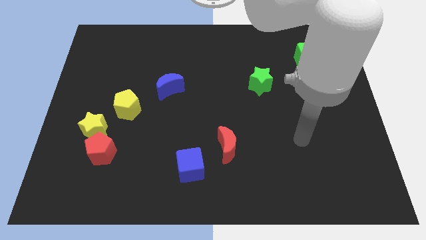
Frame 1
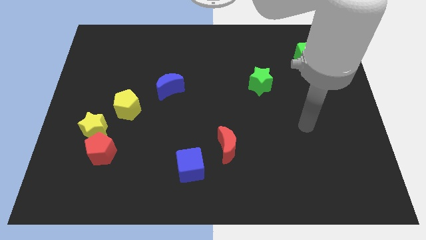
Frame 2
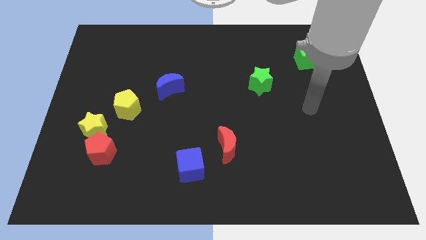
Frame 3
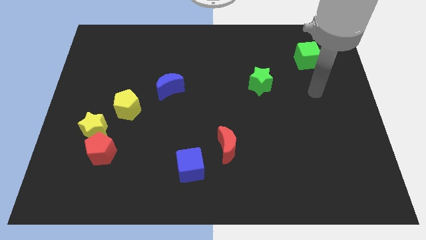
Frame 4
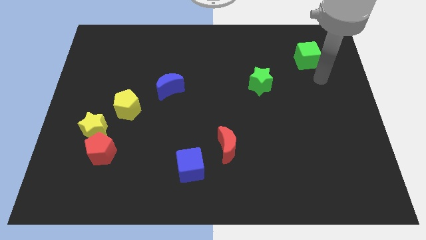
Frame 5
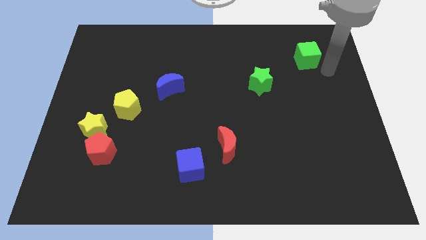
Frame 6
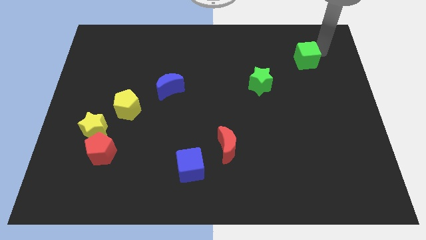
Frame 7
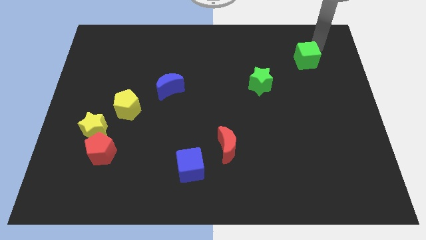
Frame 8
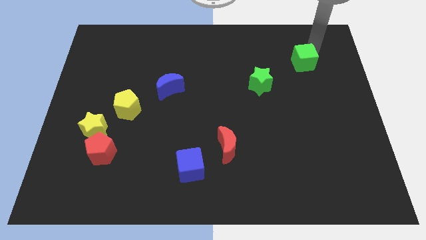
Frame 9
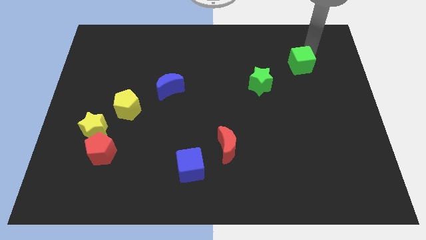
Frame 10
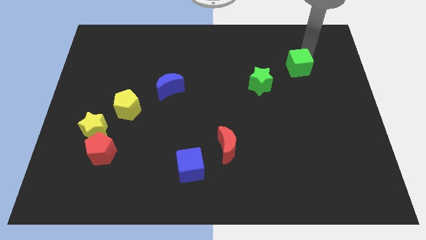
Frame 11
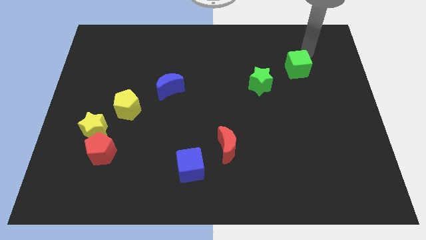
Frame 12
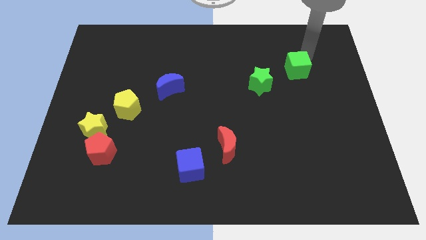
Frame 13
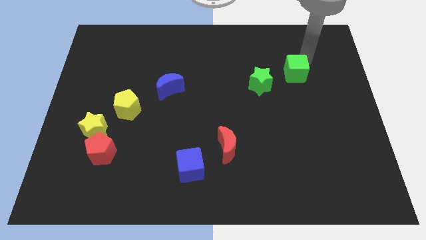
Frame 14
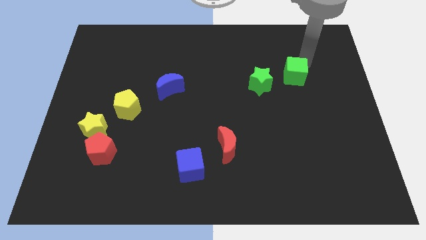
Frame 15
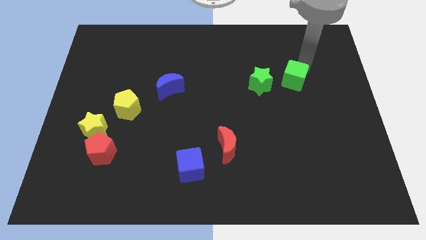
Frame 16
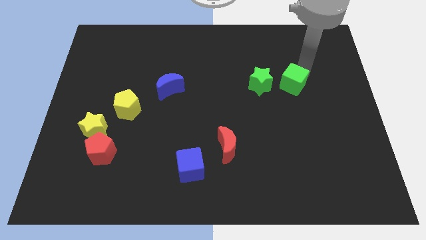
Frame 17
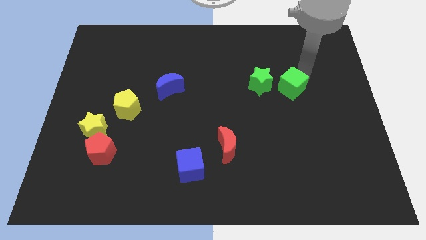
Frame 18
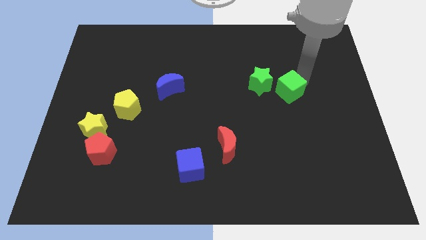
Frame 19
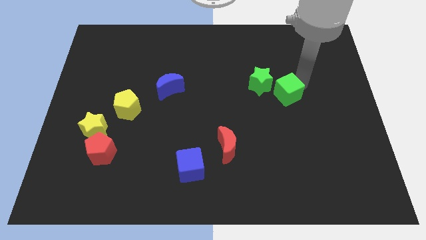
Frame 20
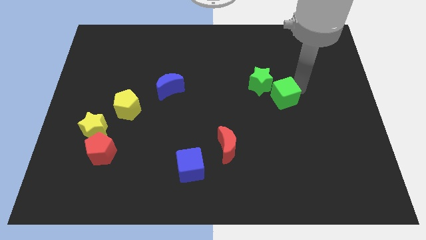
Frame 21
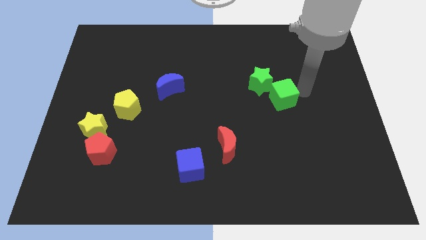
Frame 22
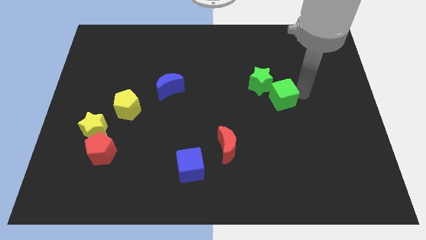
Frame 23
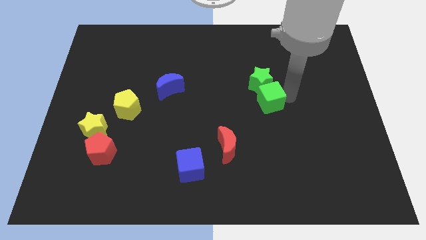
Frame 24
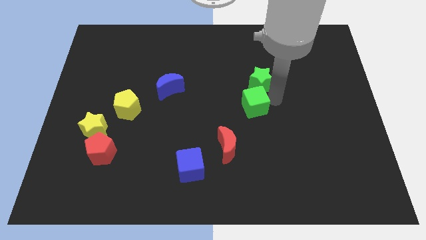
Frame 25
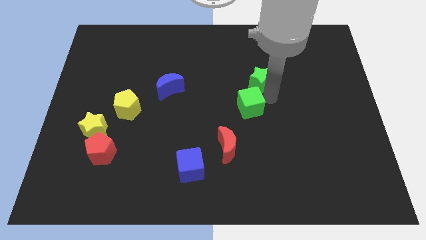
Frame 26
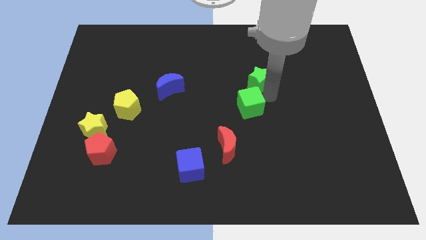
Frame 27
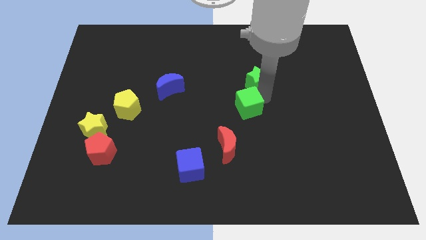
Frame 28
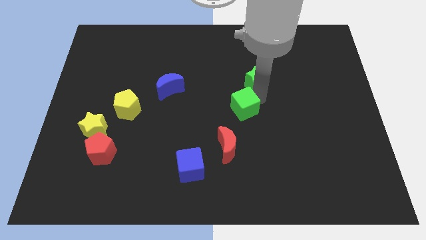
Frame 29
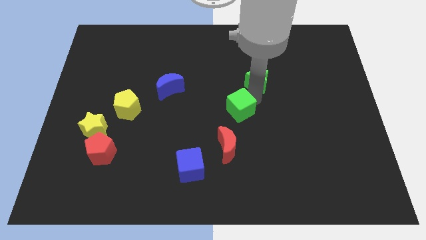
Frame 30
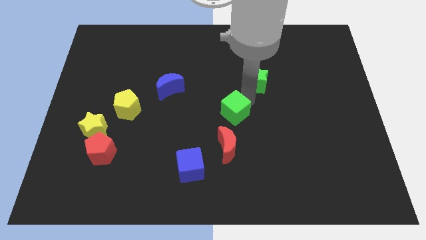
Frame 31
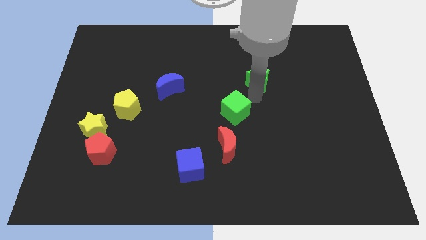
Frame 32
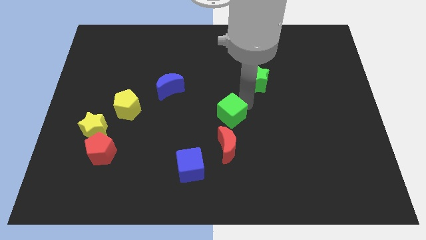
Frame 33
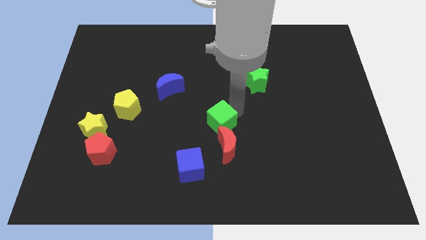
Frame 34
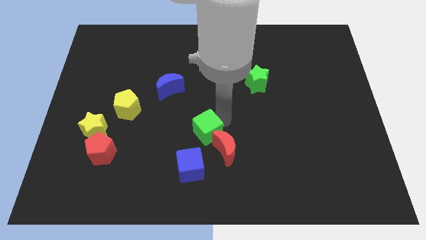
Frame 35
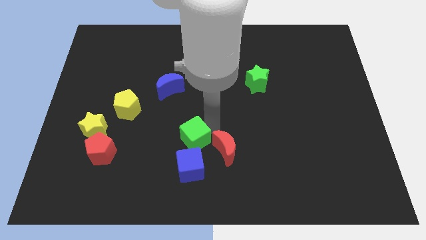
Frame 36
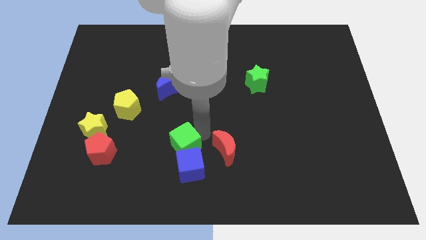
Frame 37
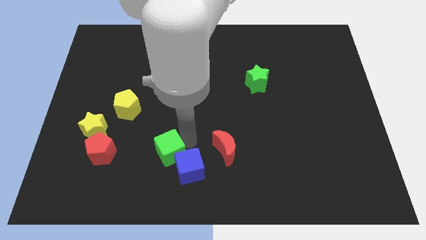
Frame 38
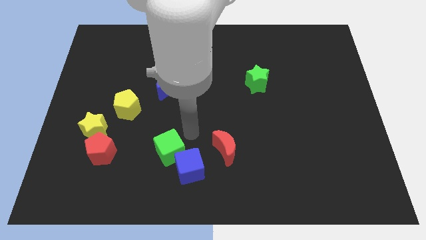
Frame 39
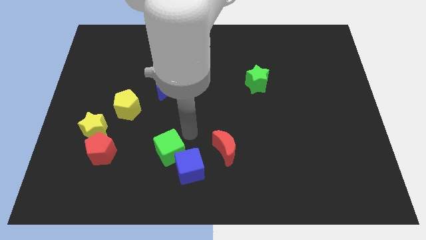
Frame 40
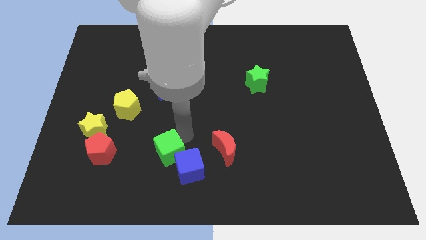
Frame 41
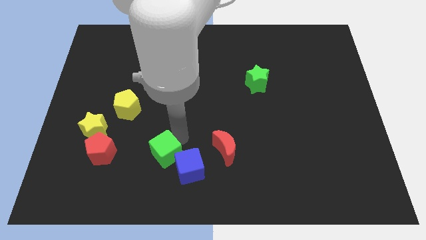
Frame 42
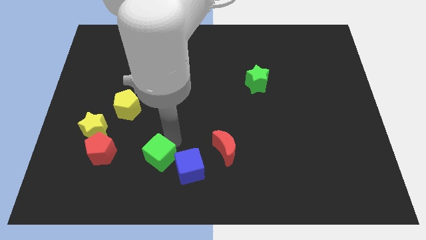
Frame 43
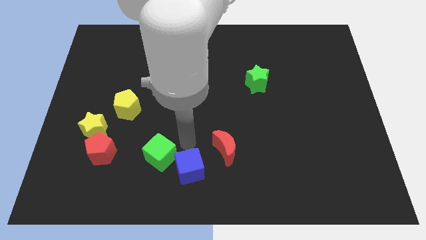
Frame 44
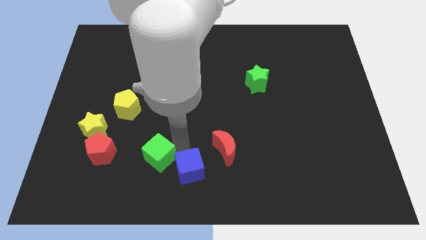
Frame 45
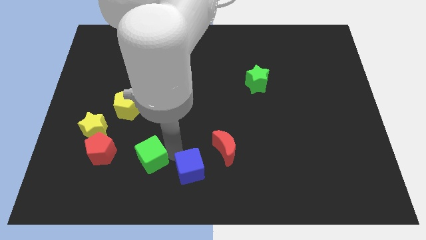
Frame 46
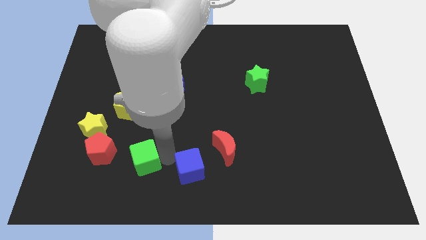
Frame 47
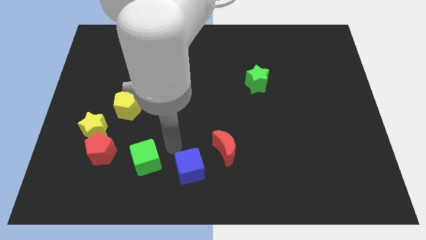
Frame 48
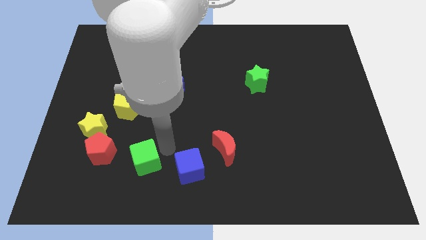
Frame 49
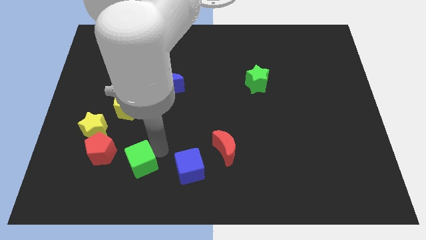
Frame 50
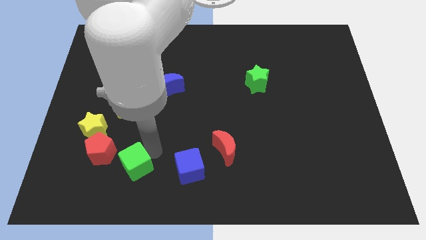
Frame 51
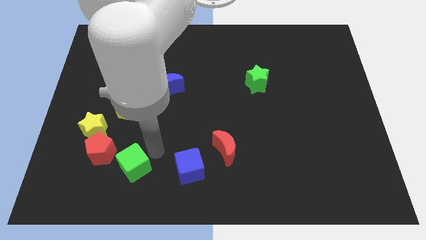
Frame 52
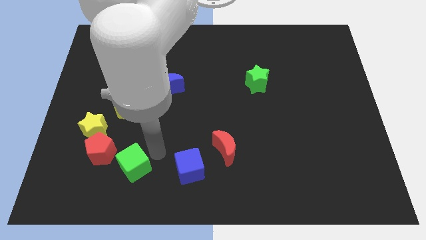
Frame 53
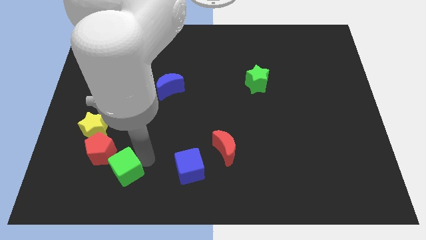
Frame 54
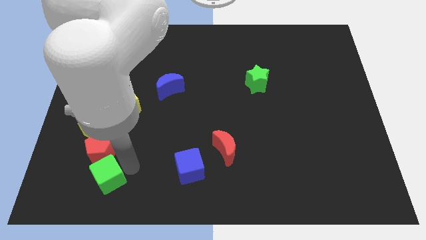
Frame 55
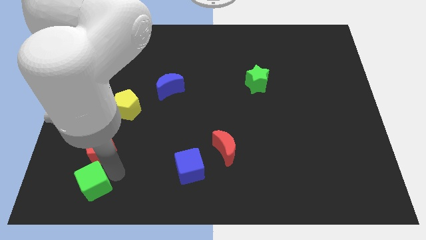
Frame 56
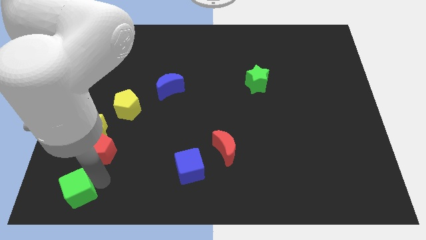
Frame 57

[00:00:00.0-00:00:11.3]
push the green cube to the bottom left of the board

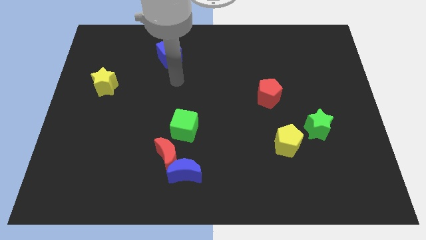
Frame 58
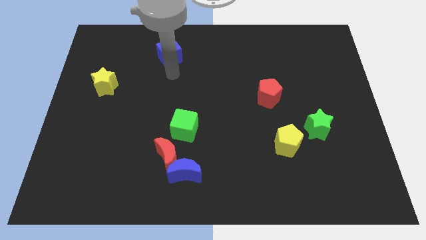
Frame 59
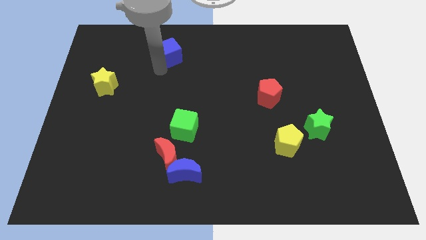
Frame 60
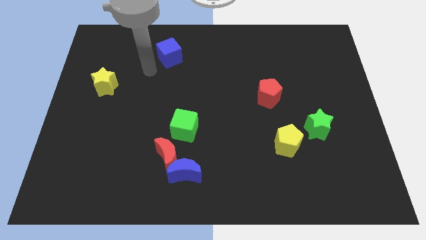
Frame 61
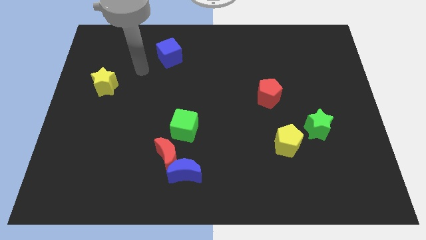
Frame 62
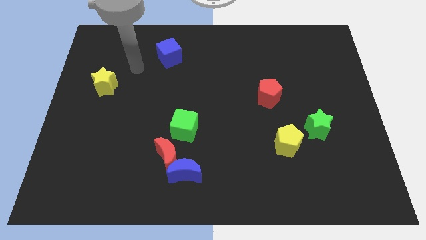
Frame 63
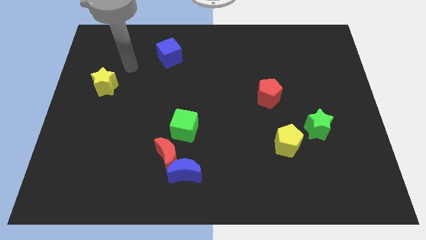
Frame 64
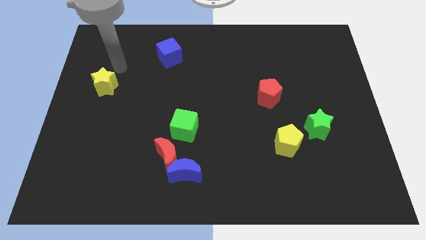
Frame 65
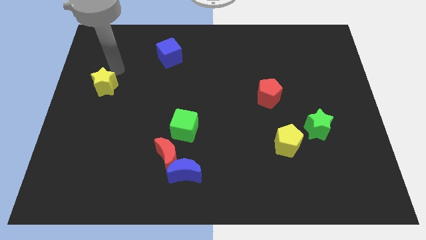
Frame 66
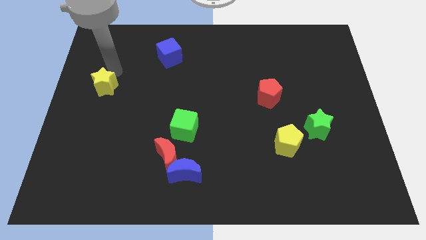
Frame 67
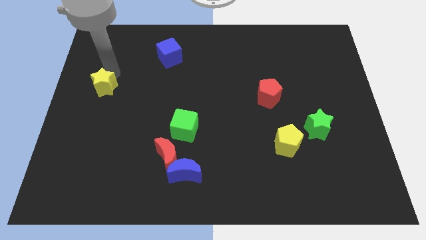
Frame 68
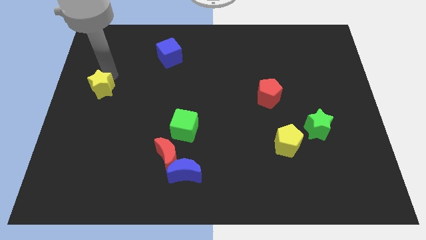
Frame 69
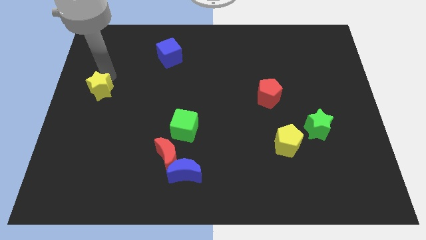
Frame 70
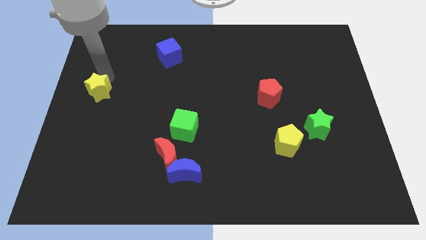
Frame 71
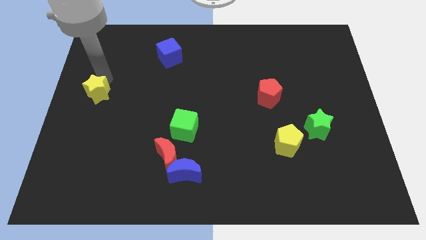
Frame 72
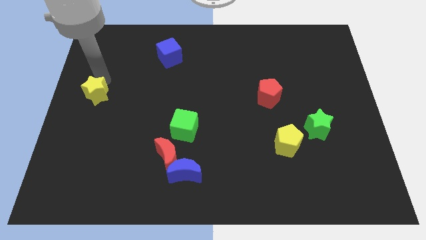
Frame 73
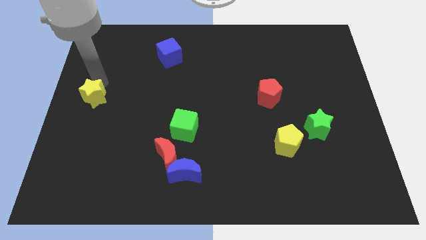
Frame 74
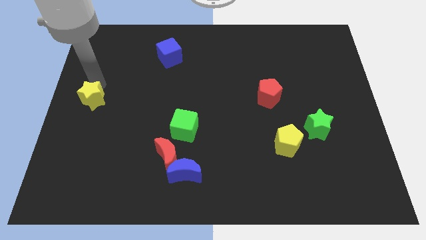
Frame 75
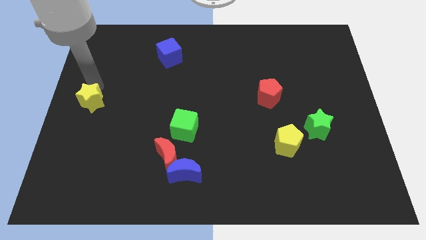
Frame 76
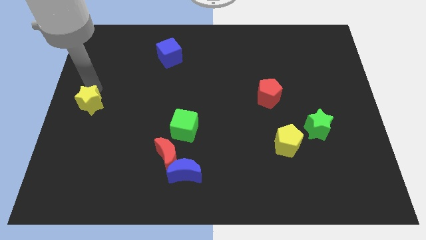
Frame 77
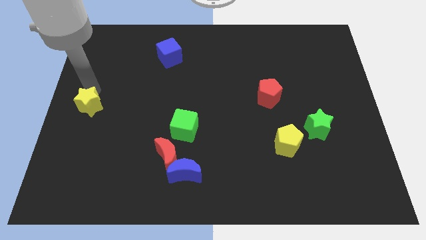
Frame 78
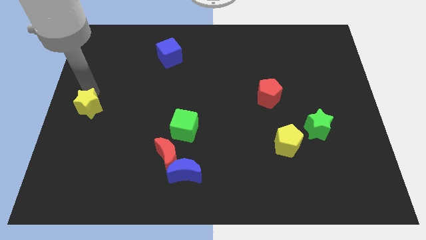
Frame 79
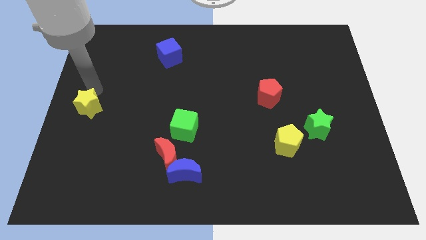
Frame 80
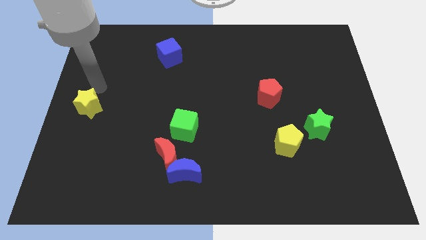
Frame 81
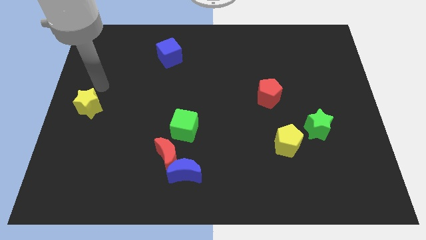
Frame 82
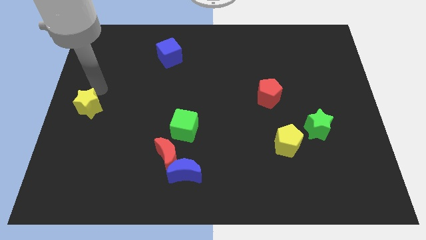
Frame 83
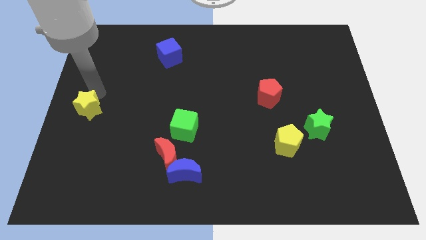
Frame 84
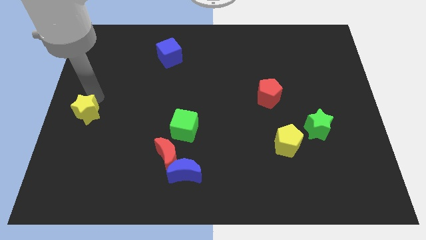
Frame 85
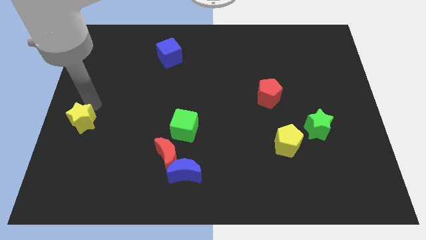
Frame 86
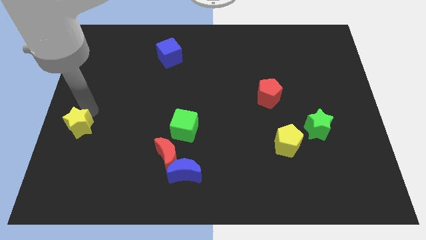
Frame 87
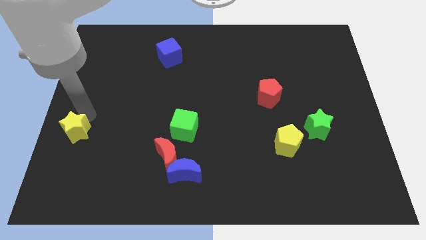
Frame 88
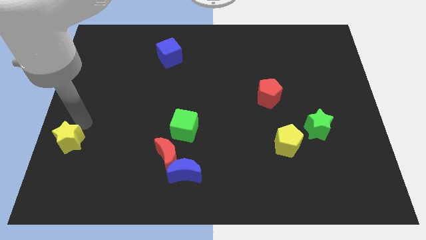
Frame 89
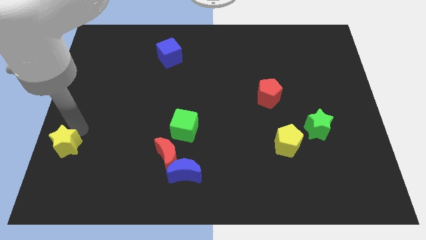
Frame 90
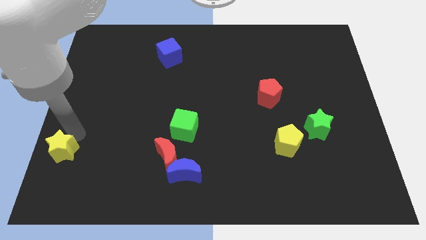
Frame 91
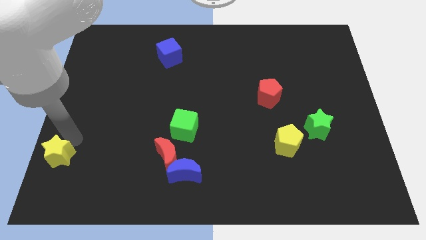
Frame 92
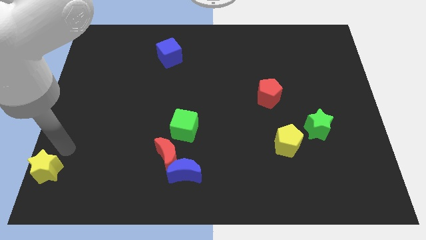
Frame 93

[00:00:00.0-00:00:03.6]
put the yellow star to the bottom left
